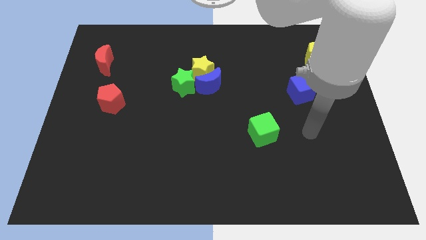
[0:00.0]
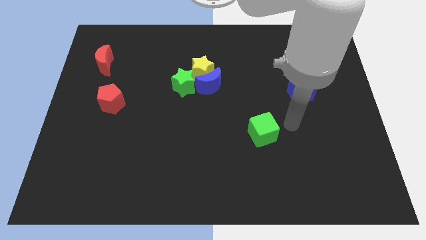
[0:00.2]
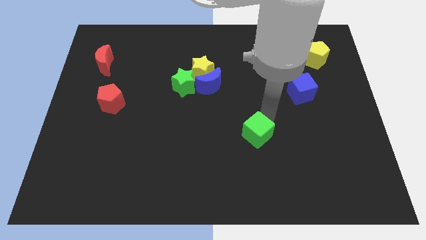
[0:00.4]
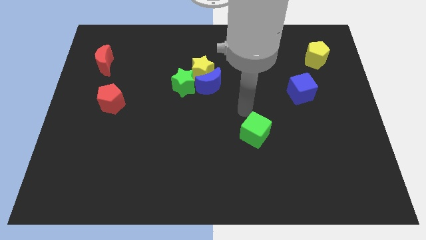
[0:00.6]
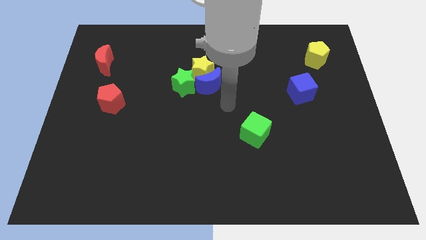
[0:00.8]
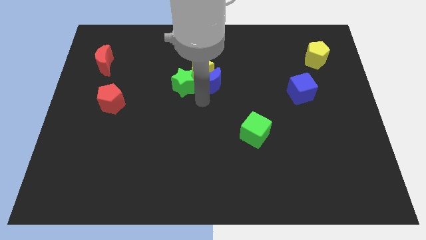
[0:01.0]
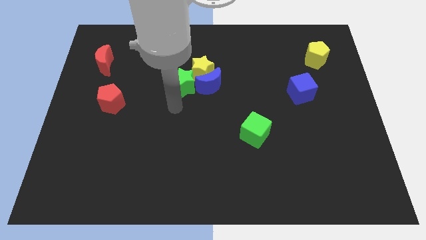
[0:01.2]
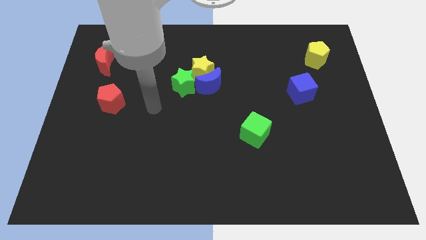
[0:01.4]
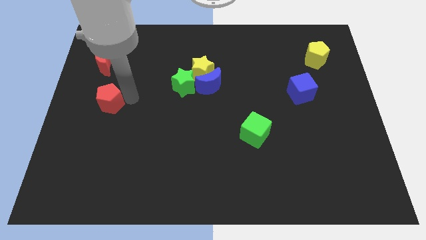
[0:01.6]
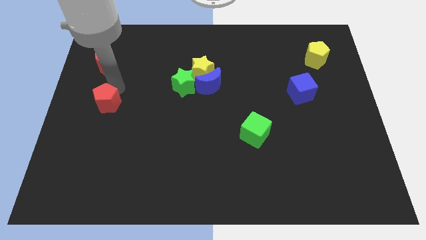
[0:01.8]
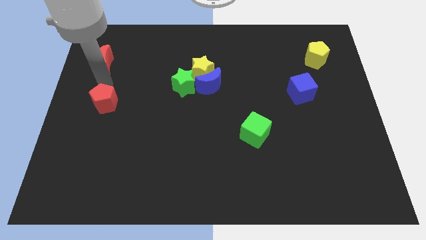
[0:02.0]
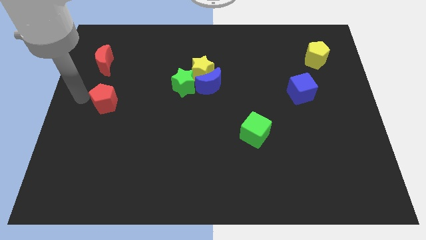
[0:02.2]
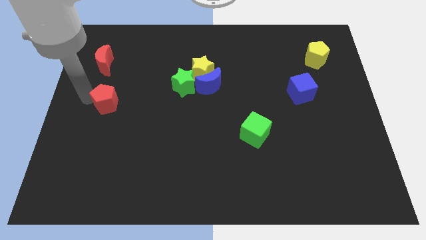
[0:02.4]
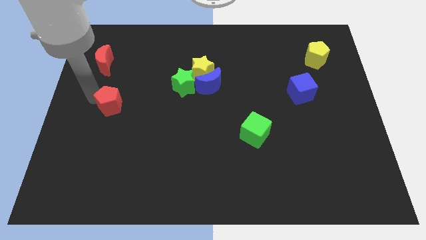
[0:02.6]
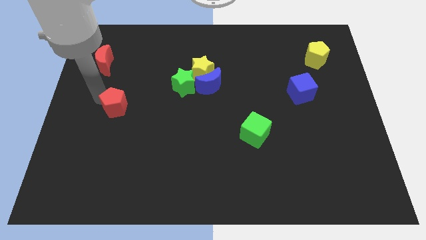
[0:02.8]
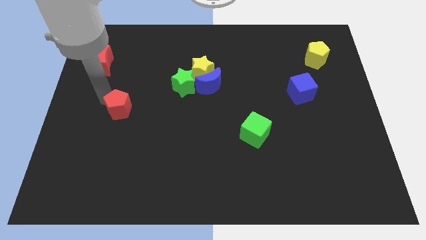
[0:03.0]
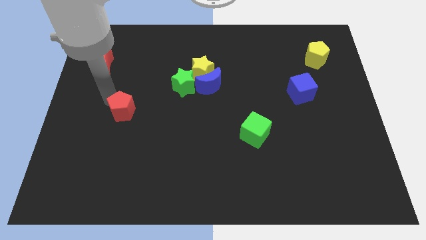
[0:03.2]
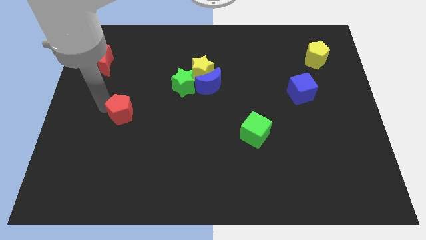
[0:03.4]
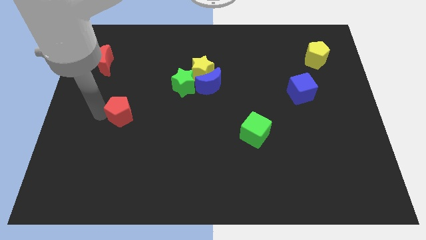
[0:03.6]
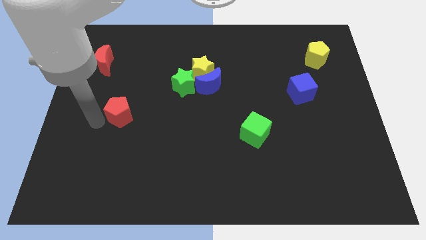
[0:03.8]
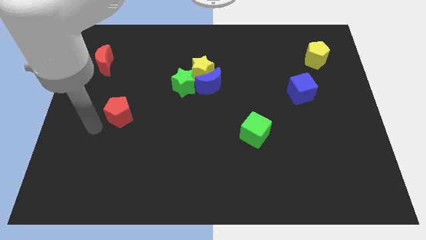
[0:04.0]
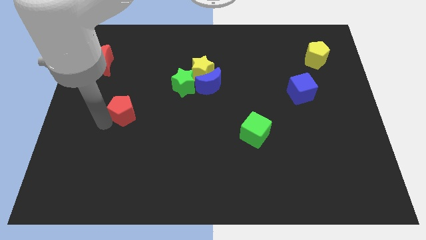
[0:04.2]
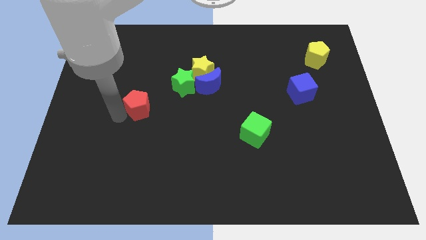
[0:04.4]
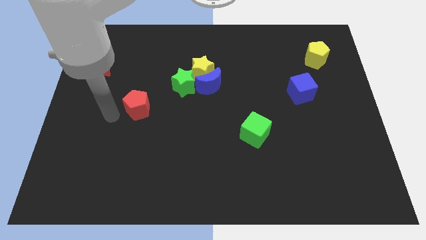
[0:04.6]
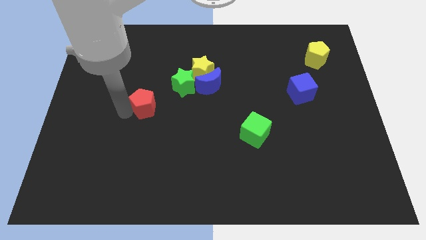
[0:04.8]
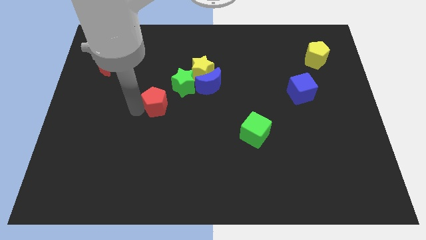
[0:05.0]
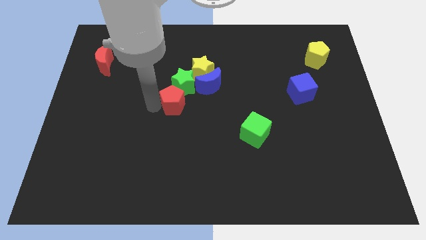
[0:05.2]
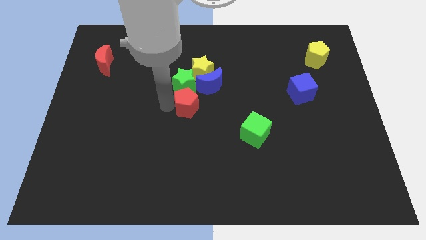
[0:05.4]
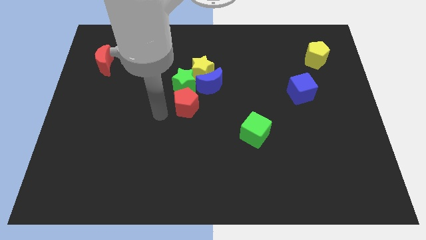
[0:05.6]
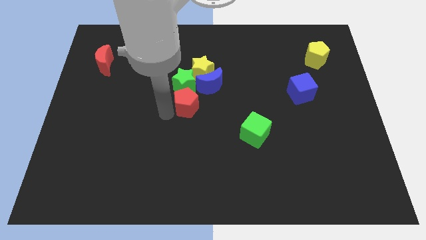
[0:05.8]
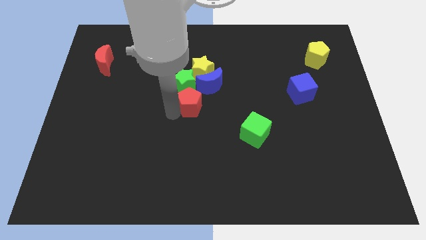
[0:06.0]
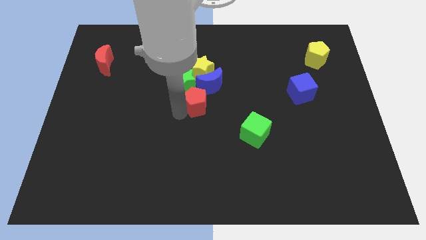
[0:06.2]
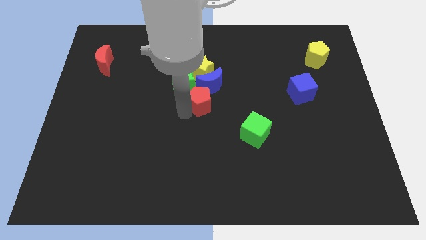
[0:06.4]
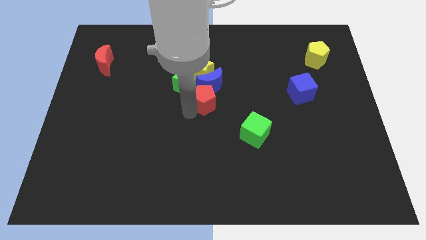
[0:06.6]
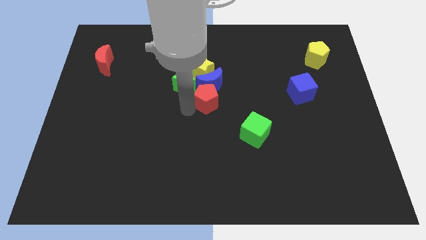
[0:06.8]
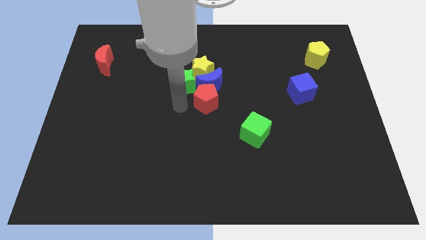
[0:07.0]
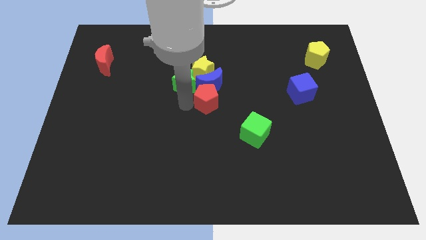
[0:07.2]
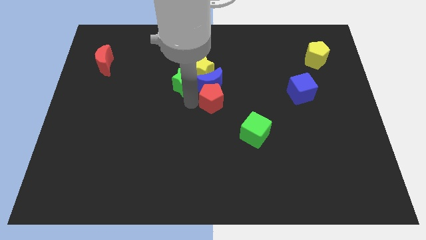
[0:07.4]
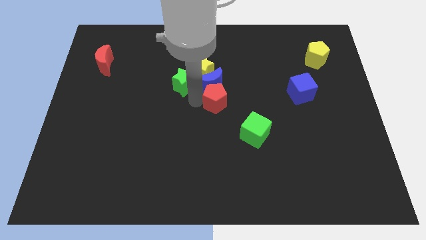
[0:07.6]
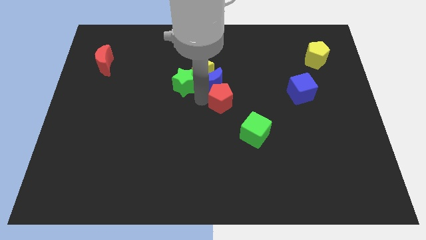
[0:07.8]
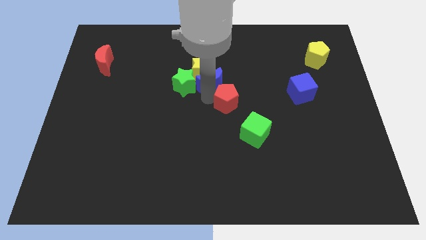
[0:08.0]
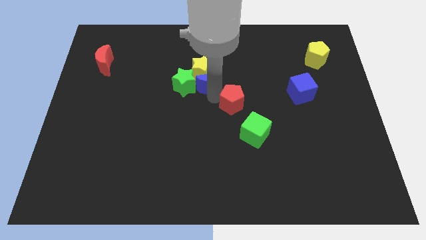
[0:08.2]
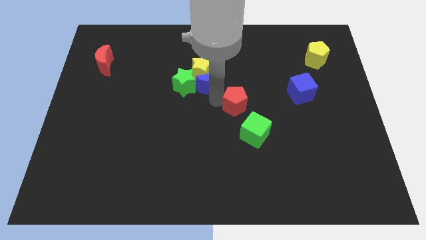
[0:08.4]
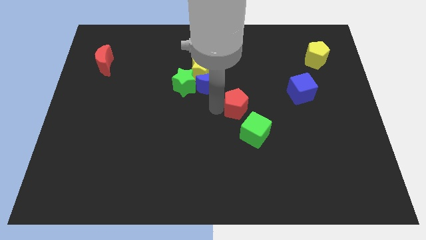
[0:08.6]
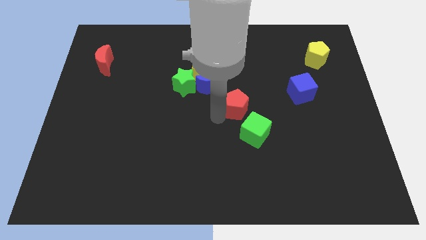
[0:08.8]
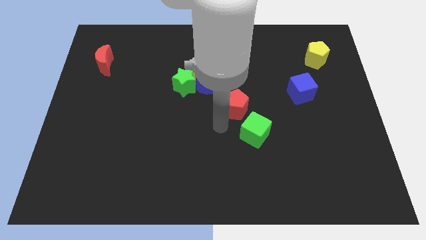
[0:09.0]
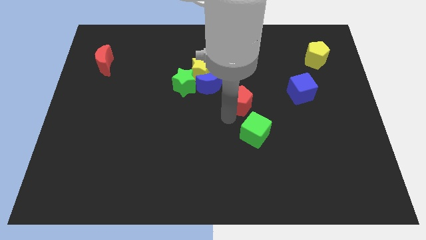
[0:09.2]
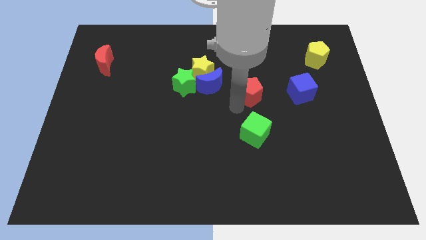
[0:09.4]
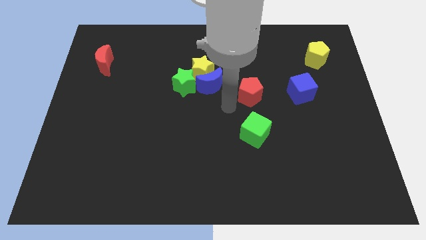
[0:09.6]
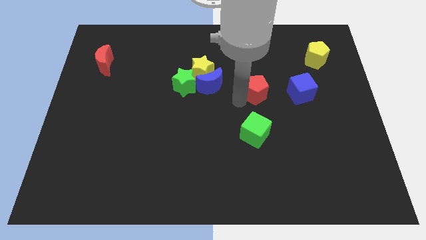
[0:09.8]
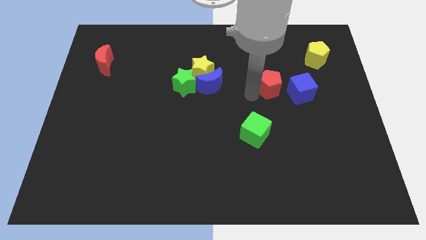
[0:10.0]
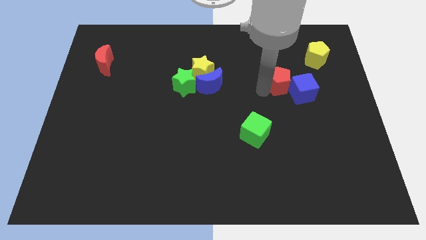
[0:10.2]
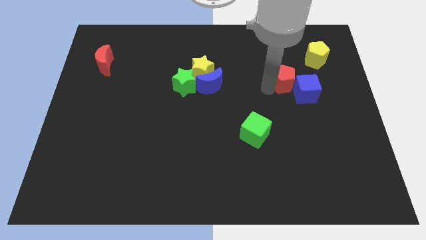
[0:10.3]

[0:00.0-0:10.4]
move the red pentagon diagonally down and to the left of the yellow pentagon
